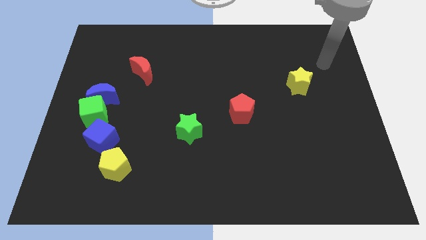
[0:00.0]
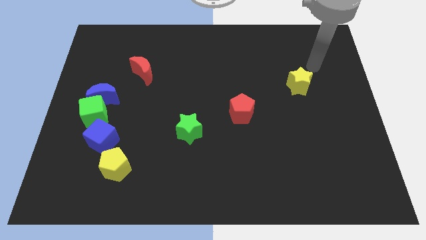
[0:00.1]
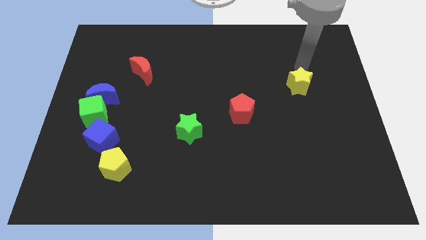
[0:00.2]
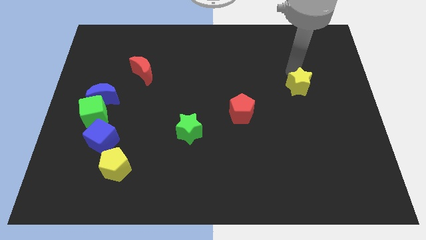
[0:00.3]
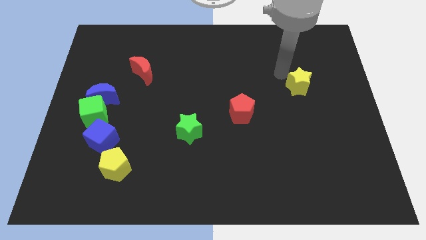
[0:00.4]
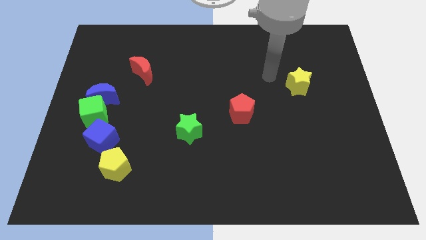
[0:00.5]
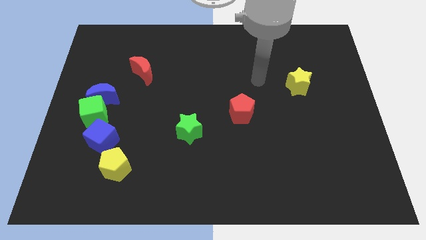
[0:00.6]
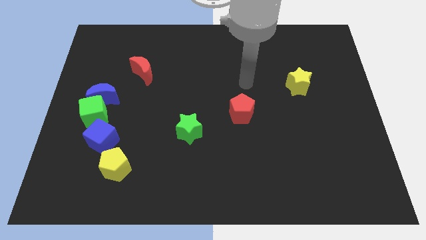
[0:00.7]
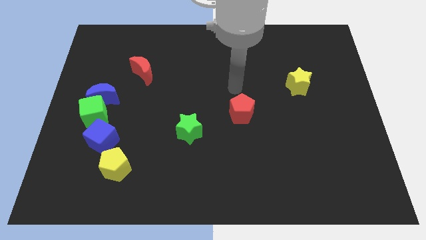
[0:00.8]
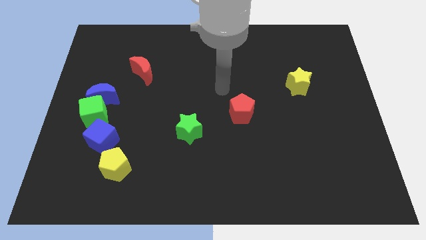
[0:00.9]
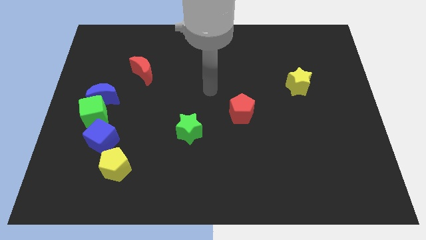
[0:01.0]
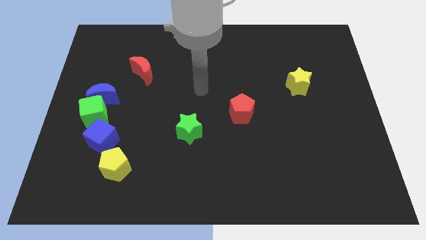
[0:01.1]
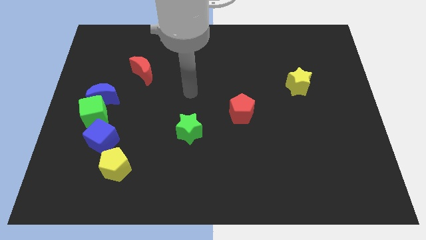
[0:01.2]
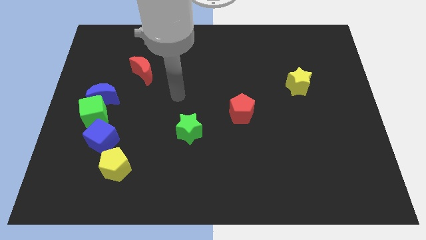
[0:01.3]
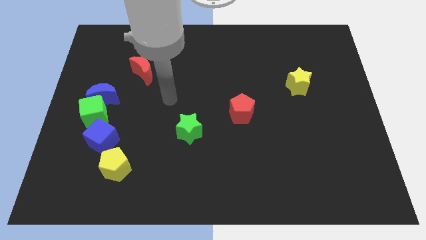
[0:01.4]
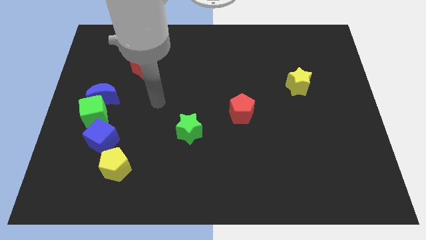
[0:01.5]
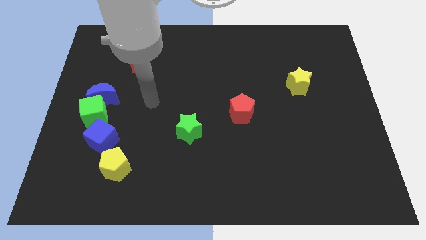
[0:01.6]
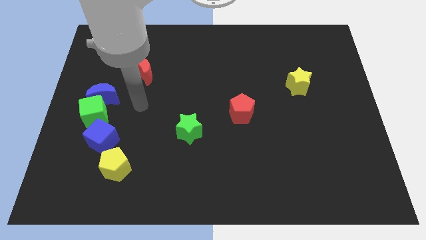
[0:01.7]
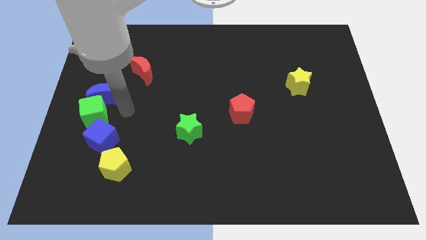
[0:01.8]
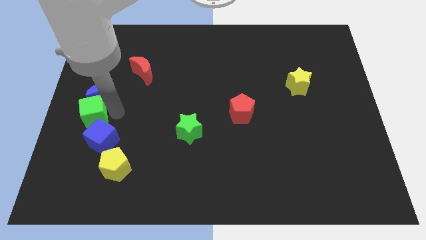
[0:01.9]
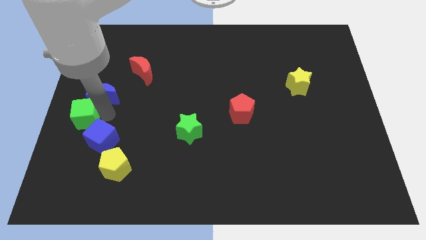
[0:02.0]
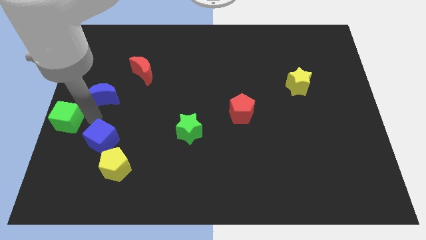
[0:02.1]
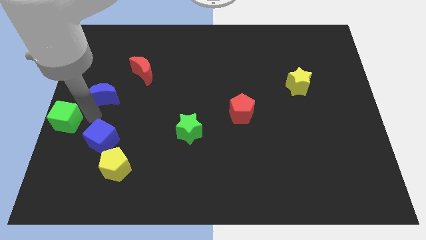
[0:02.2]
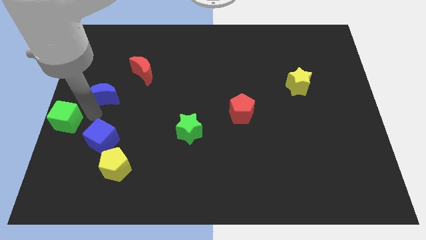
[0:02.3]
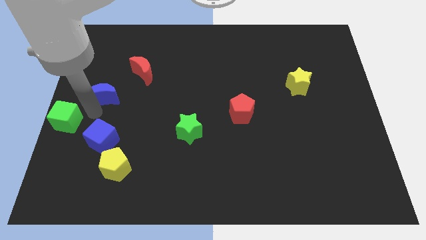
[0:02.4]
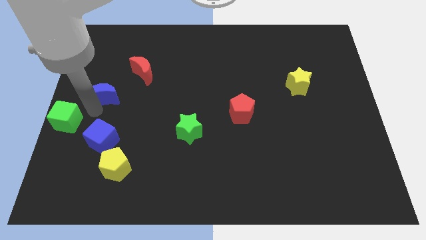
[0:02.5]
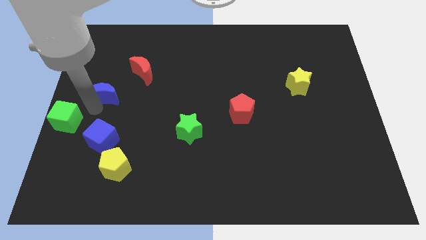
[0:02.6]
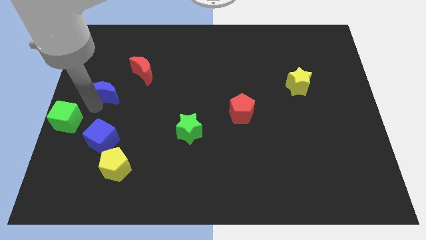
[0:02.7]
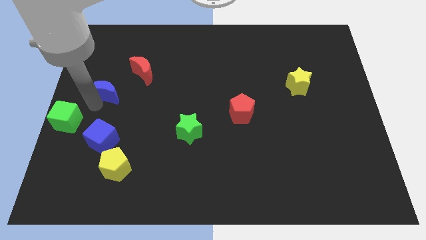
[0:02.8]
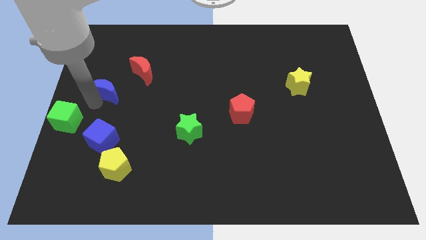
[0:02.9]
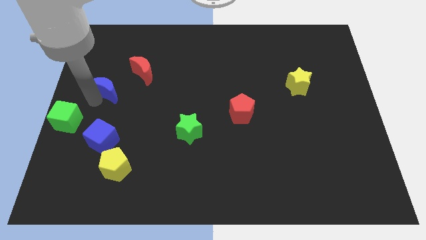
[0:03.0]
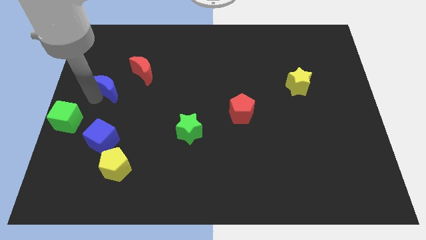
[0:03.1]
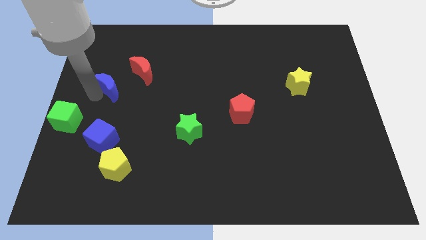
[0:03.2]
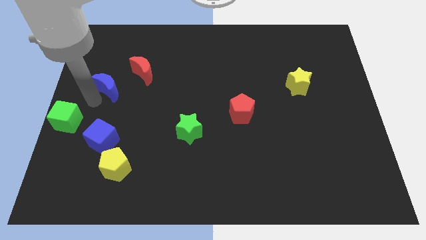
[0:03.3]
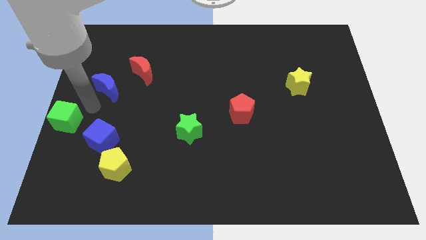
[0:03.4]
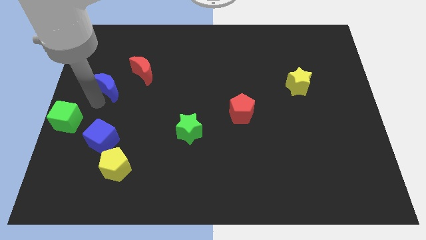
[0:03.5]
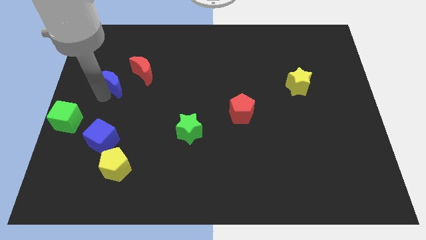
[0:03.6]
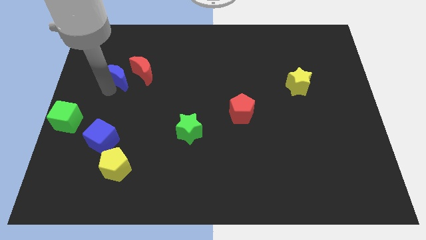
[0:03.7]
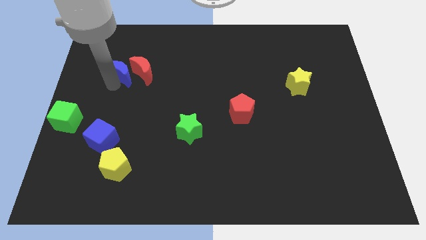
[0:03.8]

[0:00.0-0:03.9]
slide the blue moon upwards and to the right diagonally a little bit

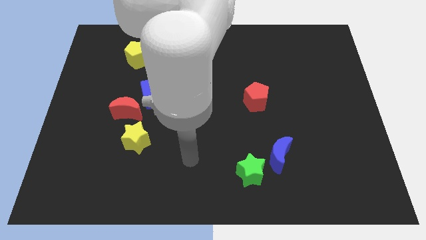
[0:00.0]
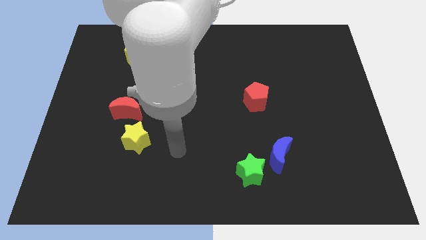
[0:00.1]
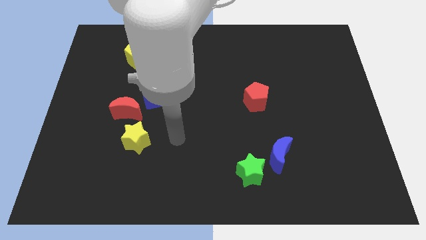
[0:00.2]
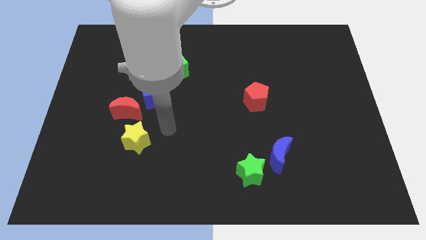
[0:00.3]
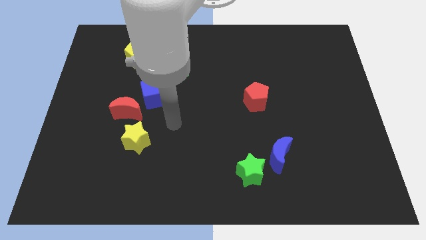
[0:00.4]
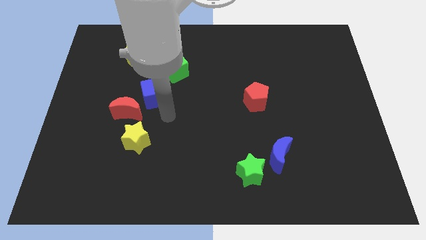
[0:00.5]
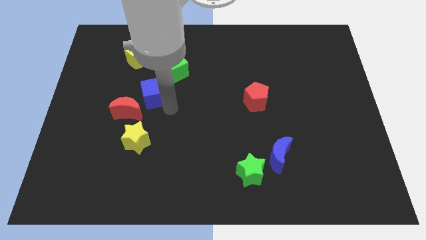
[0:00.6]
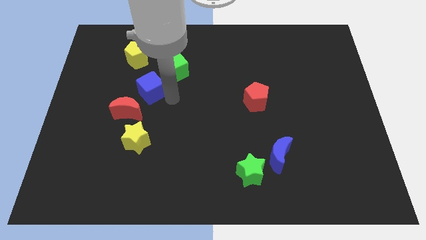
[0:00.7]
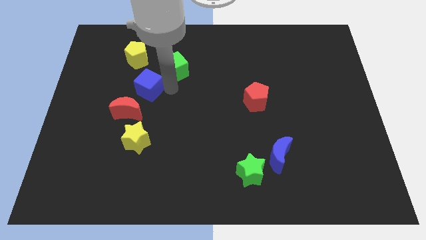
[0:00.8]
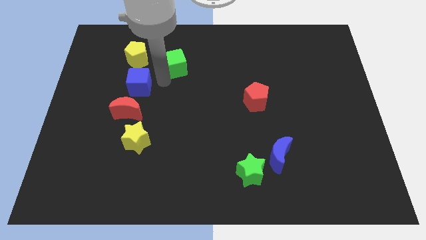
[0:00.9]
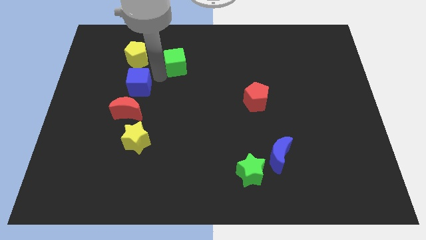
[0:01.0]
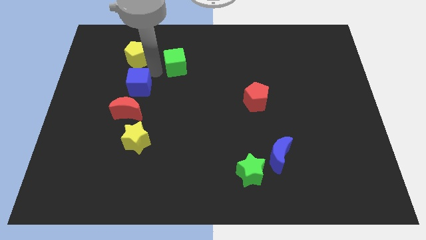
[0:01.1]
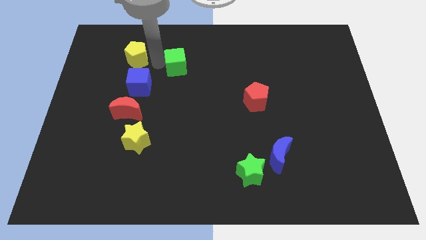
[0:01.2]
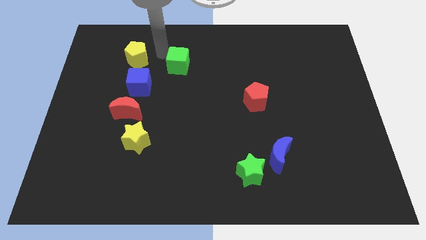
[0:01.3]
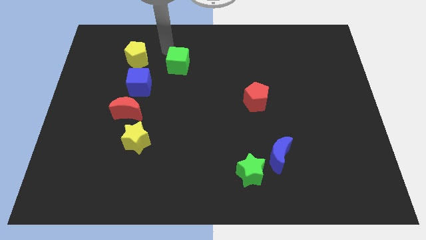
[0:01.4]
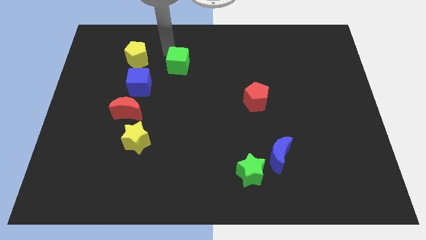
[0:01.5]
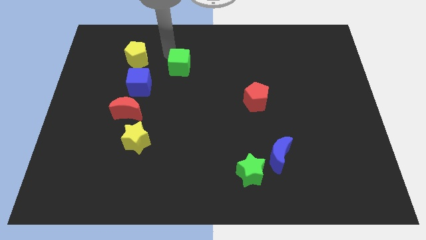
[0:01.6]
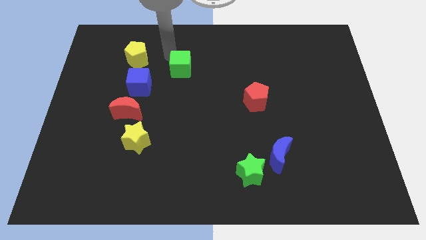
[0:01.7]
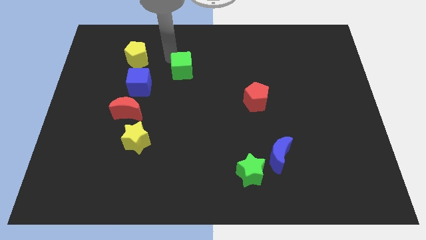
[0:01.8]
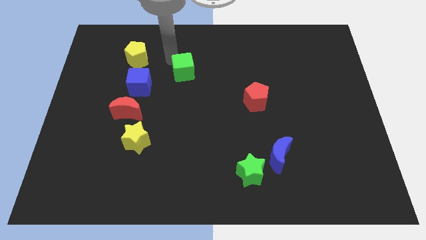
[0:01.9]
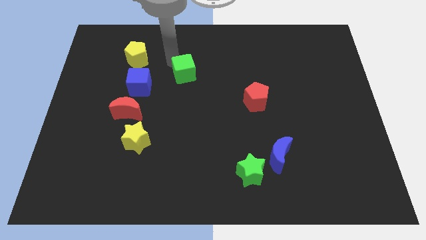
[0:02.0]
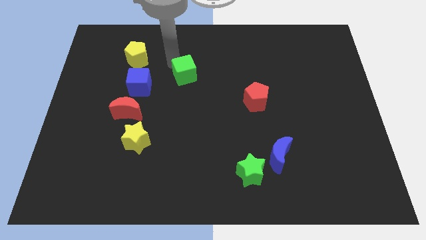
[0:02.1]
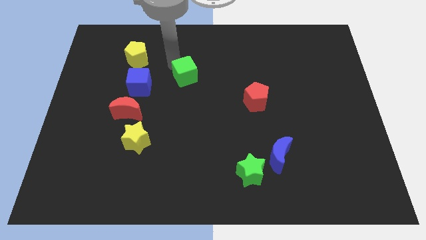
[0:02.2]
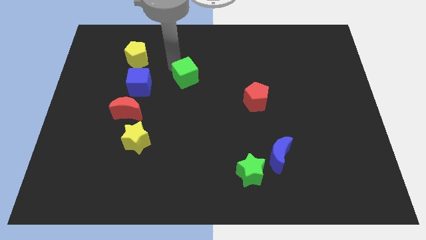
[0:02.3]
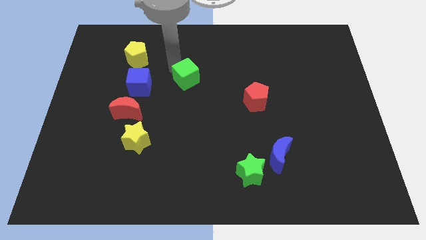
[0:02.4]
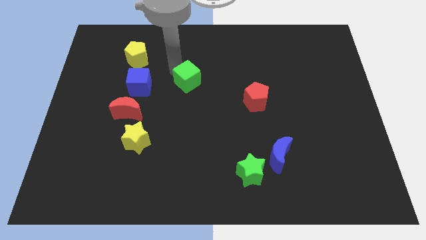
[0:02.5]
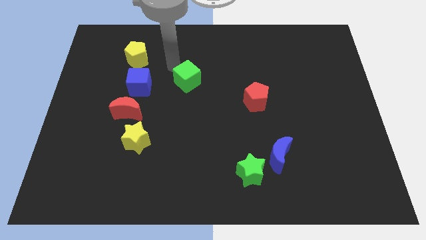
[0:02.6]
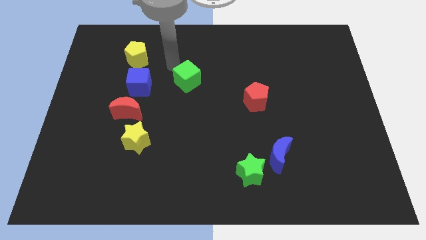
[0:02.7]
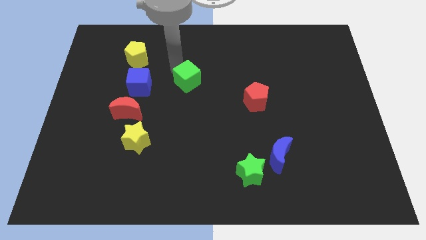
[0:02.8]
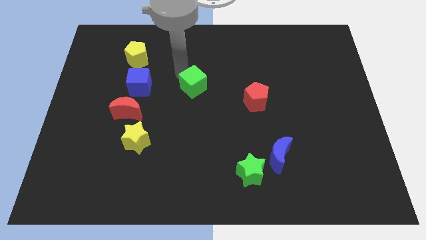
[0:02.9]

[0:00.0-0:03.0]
slightly slide the green cube downwards and then right

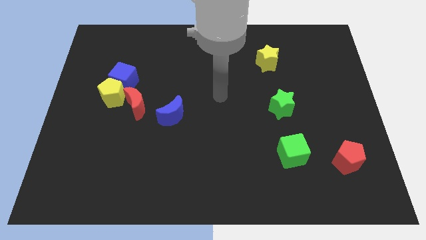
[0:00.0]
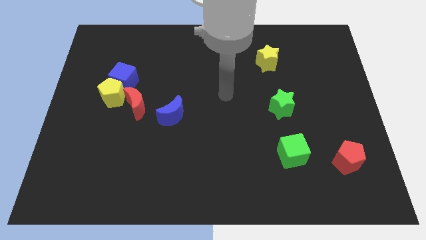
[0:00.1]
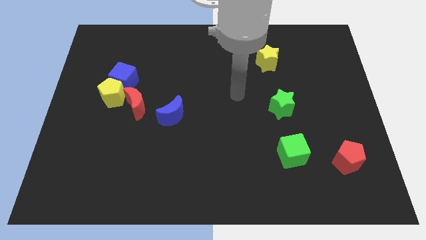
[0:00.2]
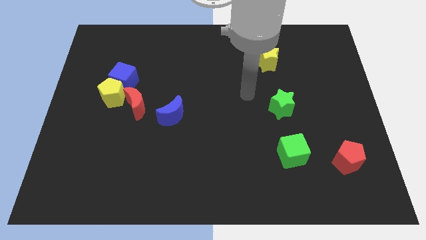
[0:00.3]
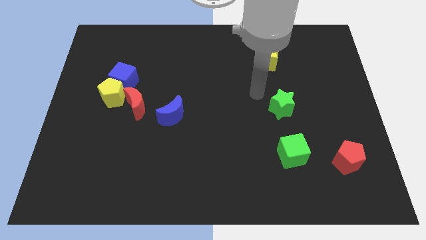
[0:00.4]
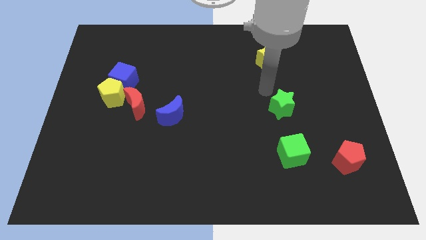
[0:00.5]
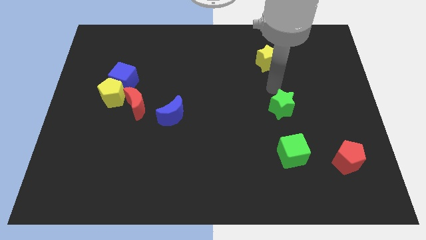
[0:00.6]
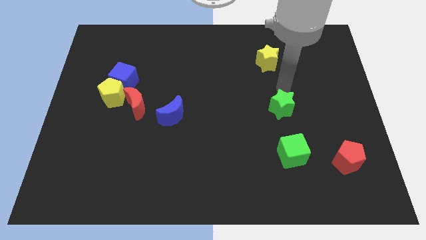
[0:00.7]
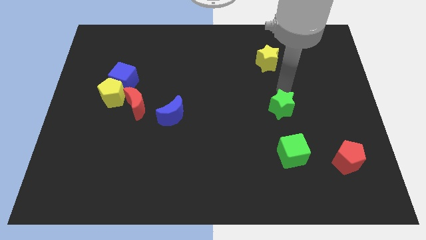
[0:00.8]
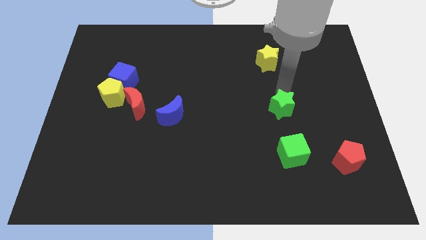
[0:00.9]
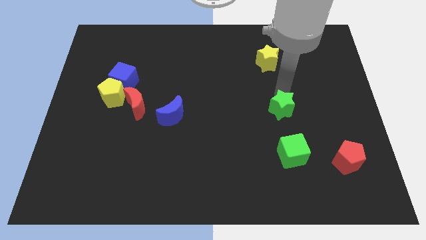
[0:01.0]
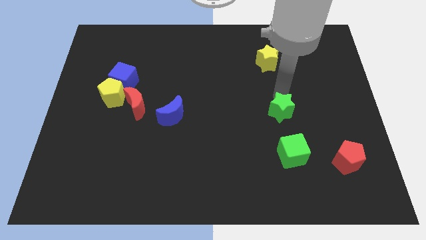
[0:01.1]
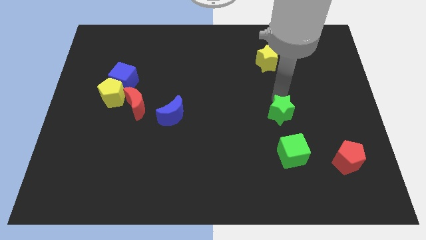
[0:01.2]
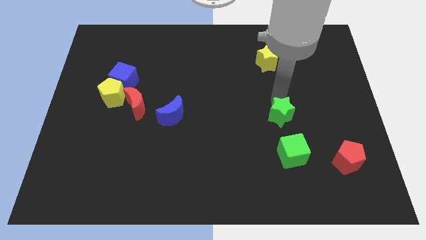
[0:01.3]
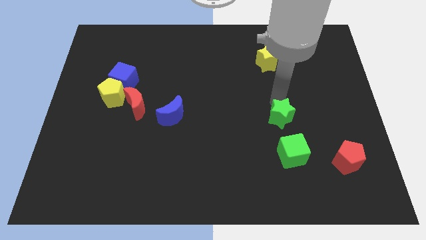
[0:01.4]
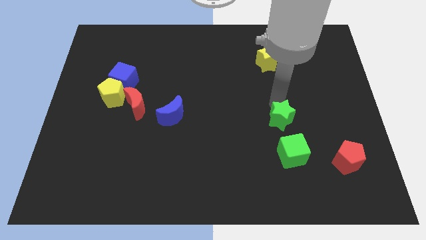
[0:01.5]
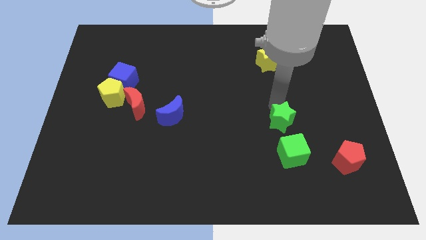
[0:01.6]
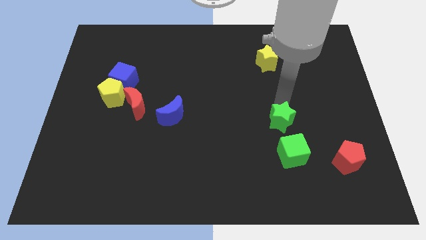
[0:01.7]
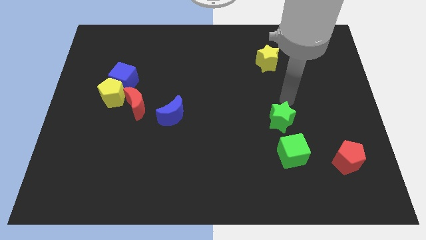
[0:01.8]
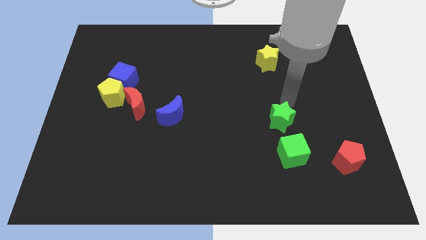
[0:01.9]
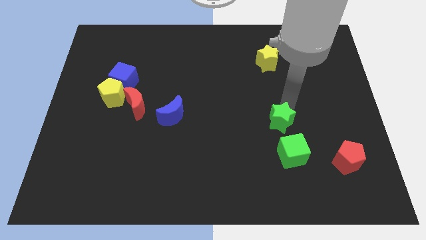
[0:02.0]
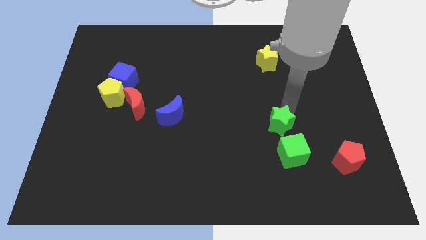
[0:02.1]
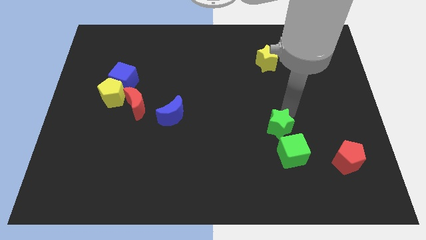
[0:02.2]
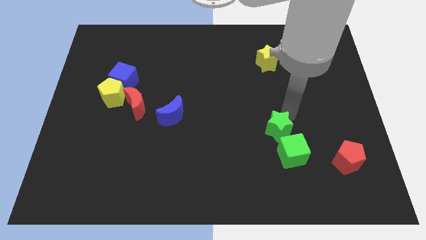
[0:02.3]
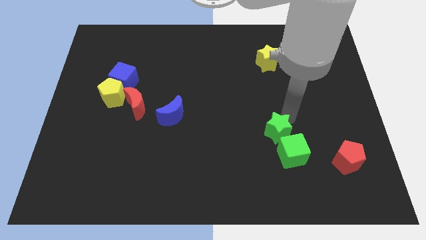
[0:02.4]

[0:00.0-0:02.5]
push the green star a little bit down
